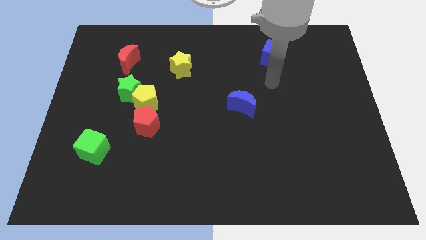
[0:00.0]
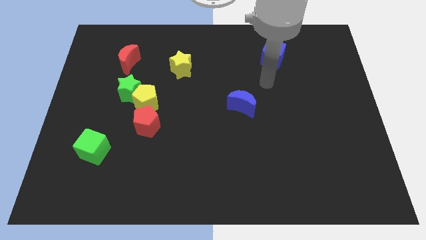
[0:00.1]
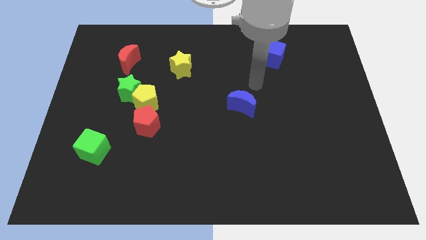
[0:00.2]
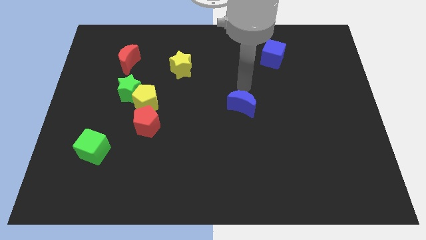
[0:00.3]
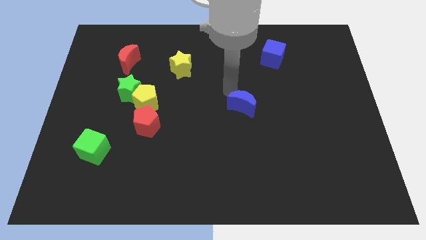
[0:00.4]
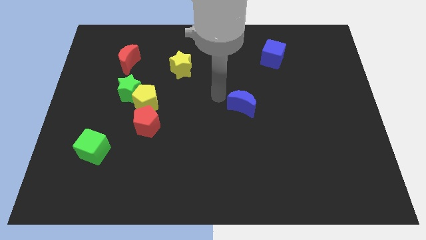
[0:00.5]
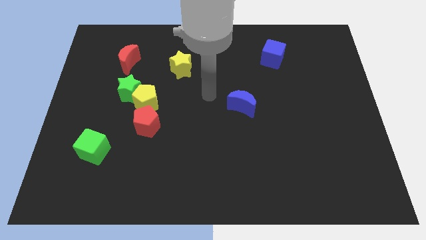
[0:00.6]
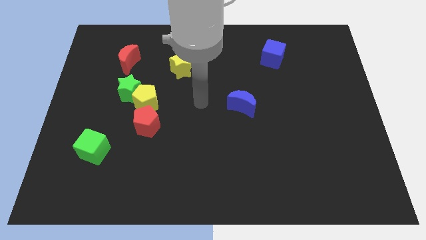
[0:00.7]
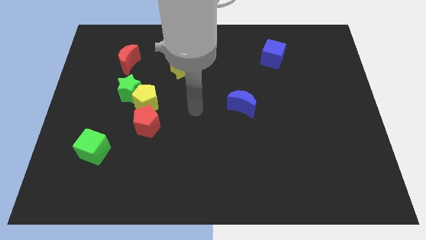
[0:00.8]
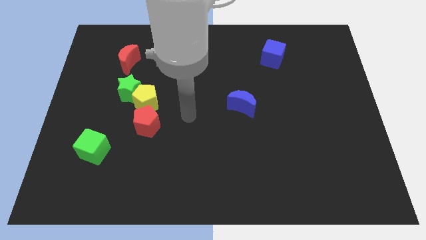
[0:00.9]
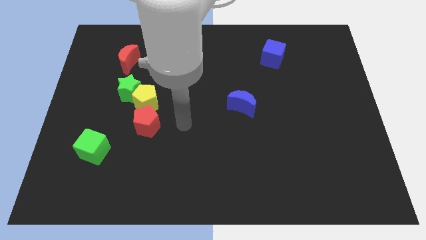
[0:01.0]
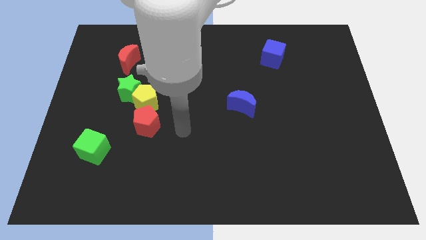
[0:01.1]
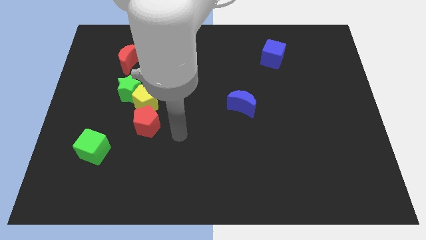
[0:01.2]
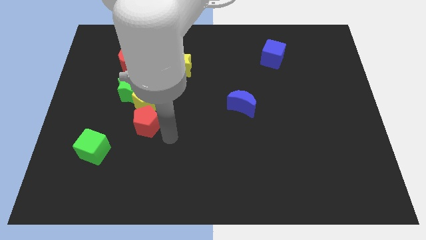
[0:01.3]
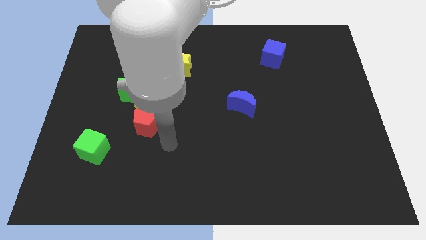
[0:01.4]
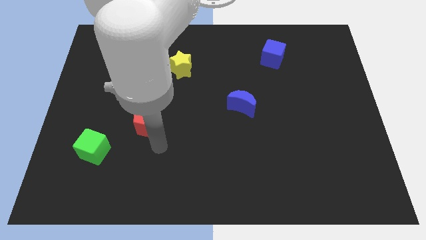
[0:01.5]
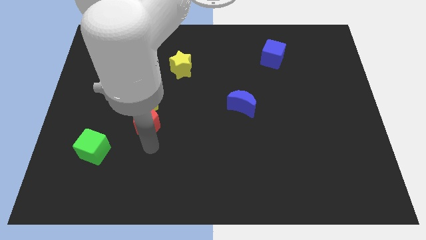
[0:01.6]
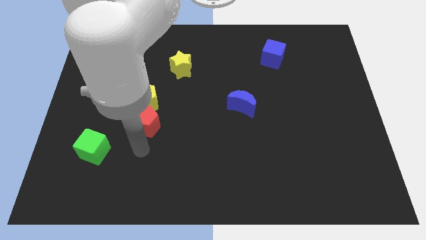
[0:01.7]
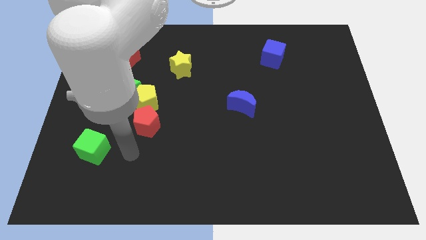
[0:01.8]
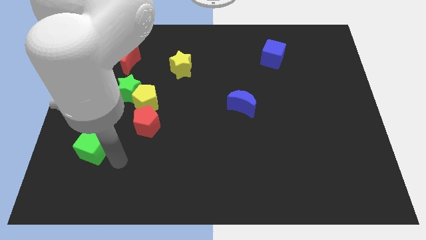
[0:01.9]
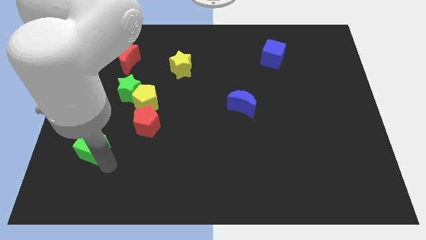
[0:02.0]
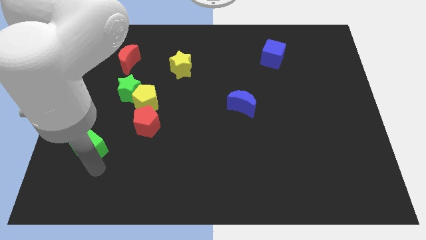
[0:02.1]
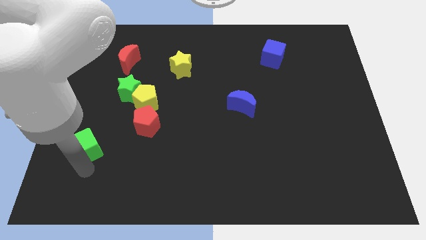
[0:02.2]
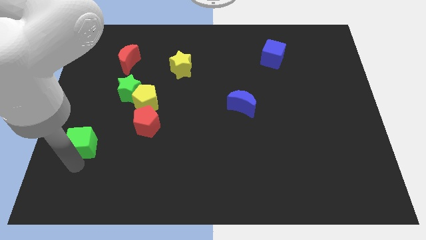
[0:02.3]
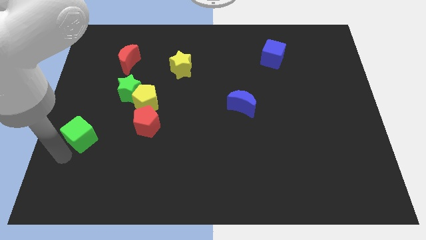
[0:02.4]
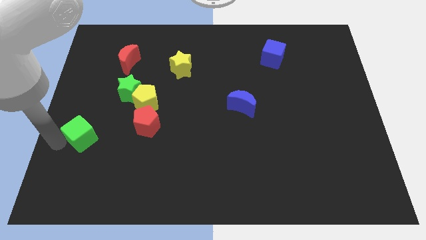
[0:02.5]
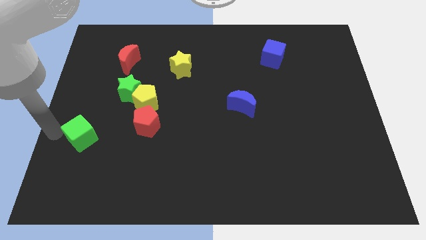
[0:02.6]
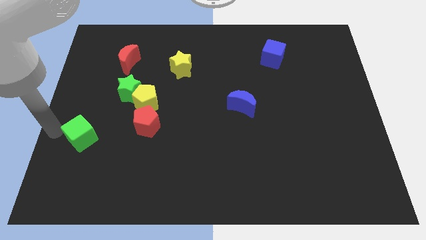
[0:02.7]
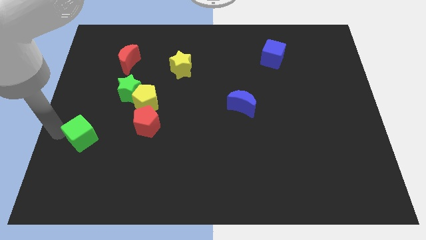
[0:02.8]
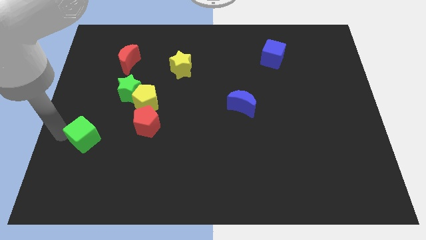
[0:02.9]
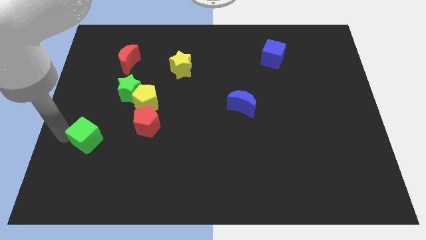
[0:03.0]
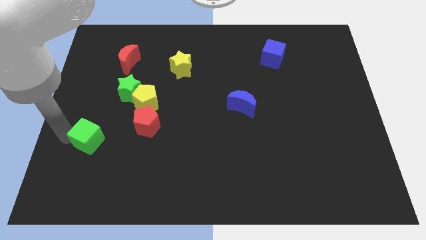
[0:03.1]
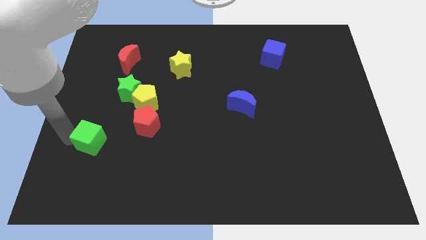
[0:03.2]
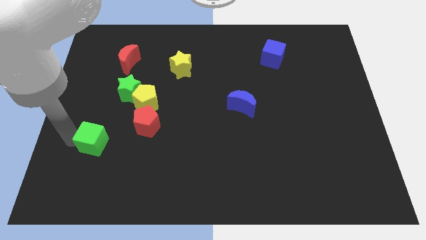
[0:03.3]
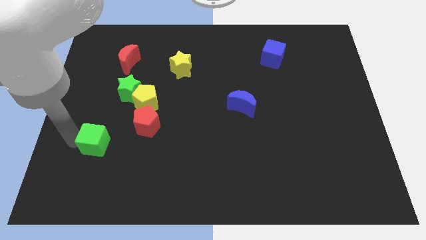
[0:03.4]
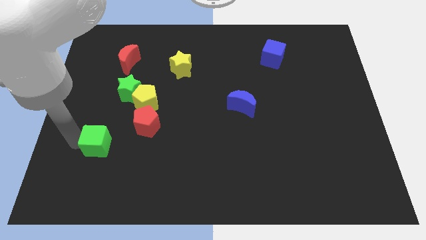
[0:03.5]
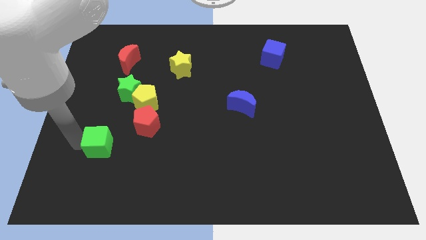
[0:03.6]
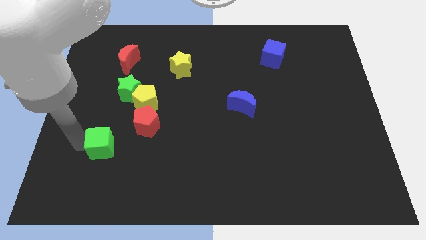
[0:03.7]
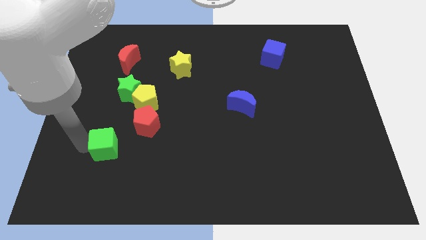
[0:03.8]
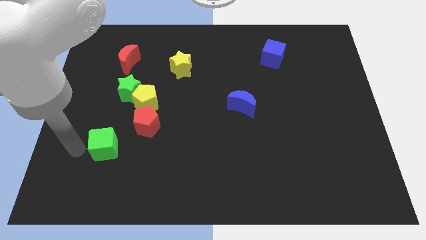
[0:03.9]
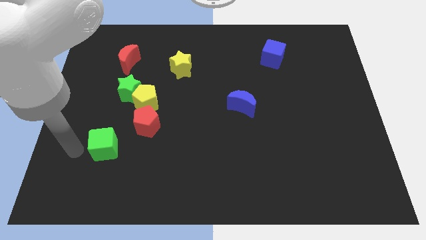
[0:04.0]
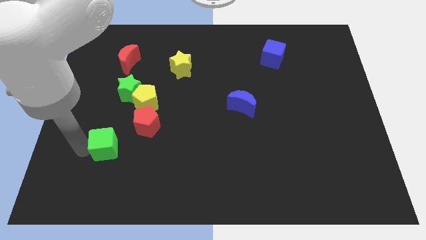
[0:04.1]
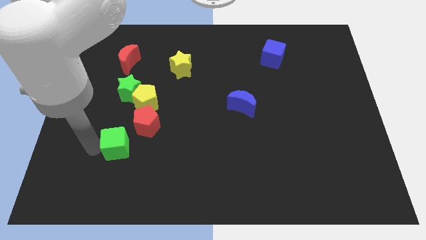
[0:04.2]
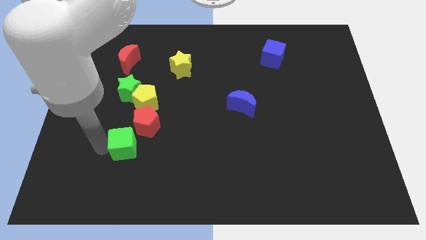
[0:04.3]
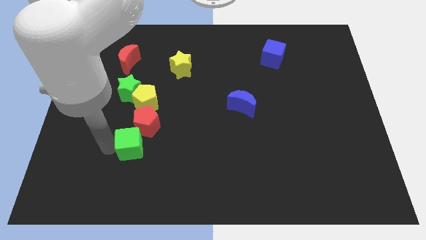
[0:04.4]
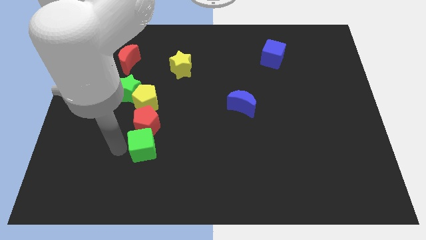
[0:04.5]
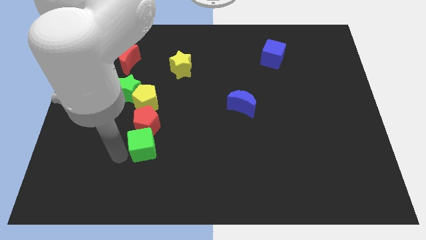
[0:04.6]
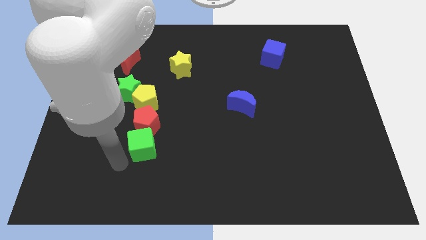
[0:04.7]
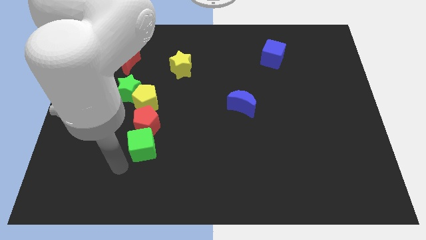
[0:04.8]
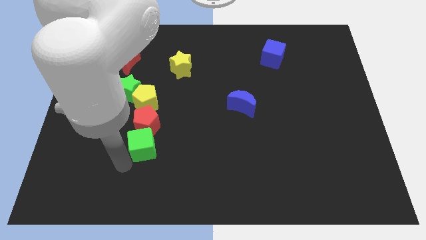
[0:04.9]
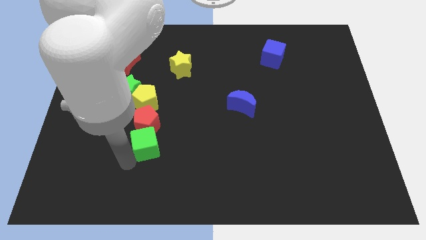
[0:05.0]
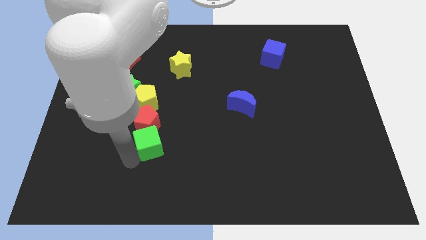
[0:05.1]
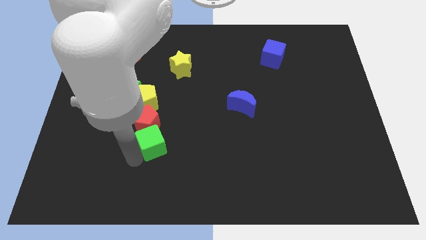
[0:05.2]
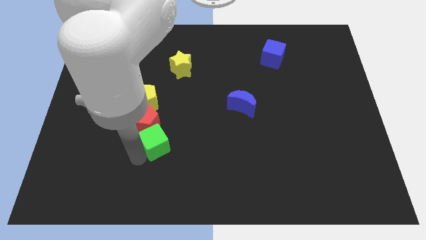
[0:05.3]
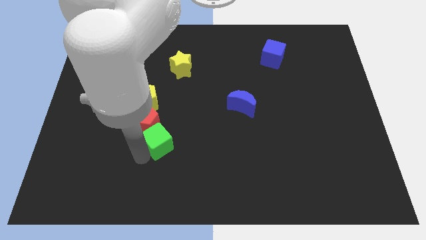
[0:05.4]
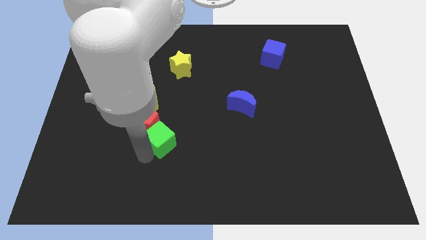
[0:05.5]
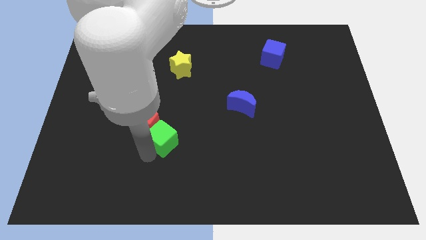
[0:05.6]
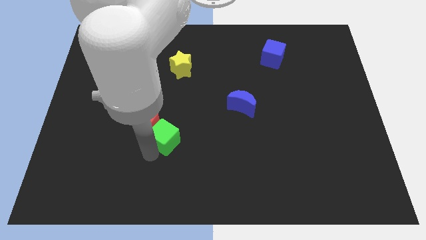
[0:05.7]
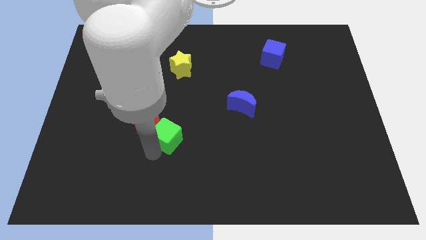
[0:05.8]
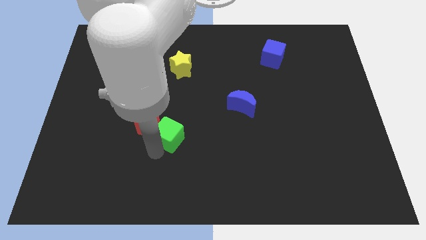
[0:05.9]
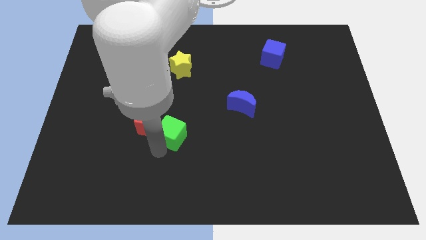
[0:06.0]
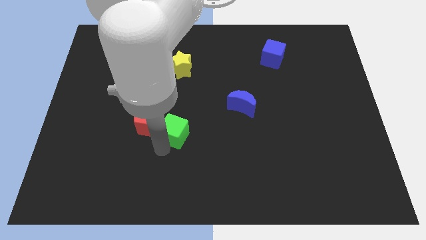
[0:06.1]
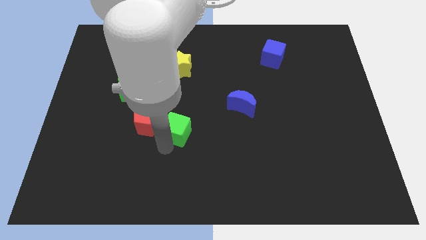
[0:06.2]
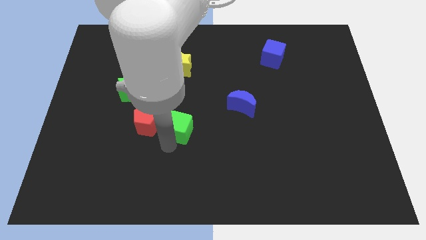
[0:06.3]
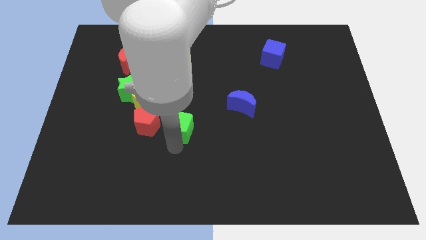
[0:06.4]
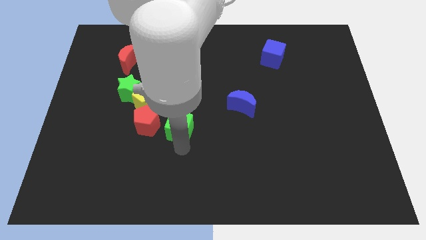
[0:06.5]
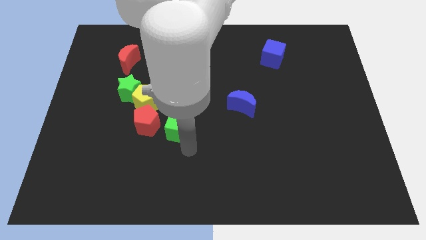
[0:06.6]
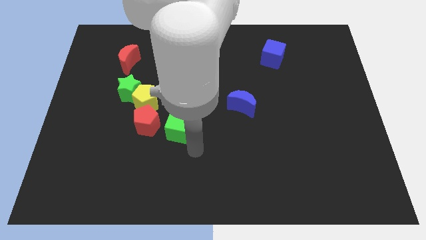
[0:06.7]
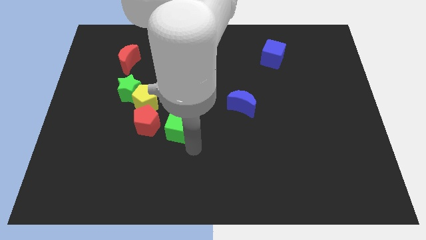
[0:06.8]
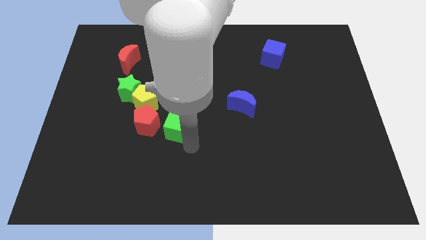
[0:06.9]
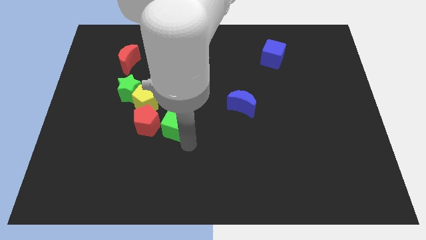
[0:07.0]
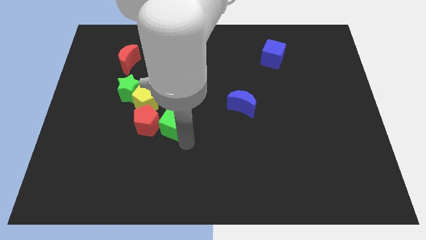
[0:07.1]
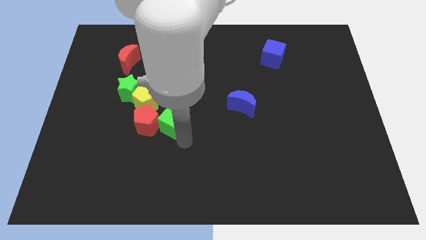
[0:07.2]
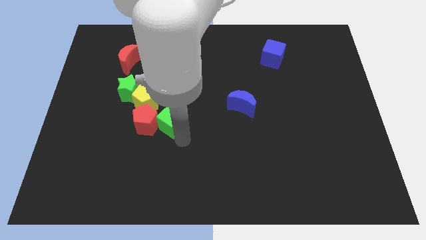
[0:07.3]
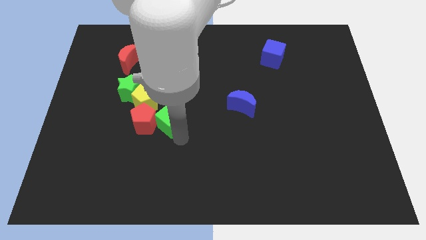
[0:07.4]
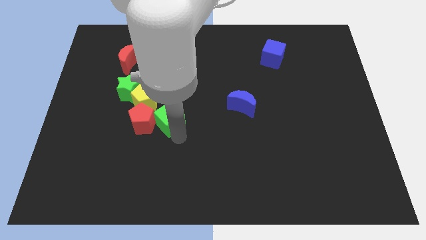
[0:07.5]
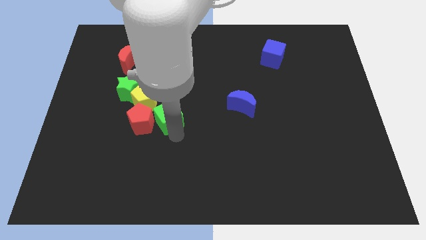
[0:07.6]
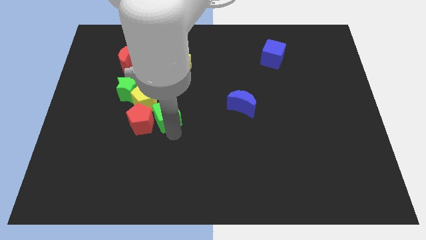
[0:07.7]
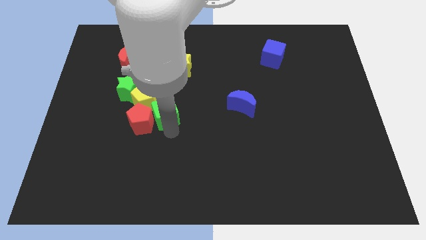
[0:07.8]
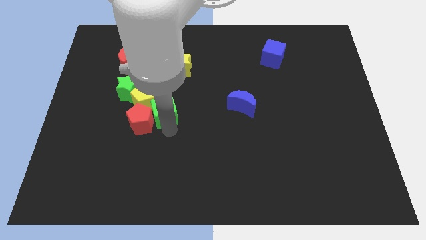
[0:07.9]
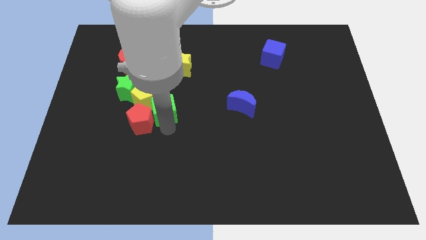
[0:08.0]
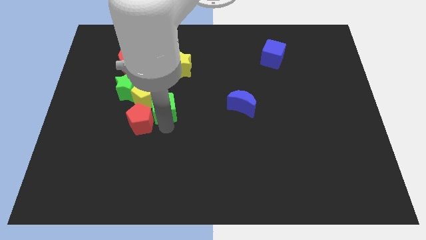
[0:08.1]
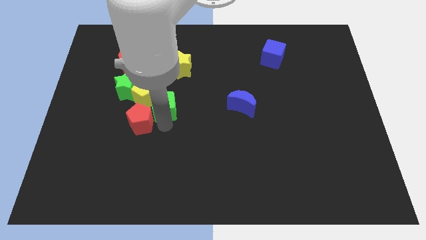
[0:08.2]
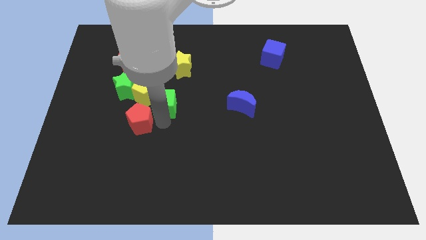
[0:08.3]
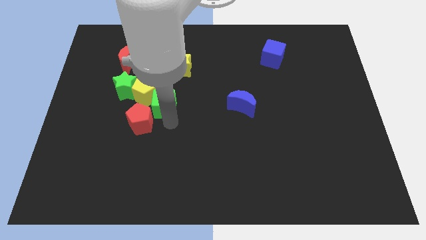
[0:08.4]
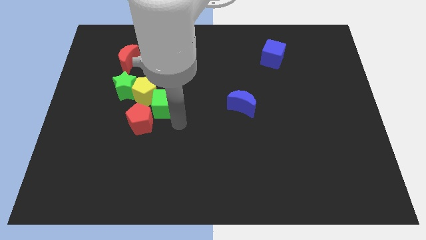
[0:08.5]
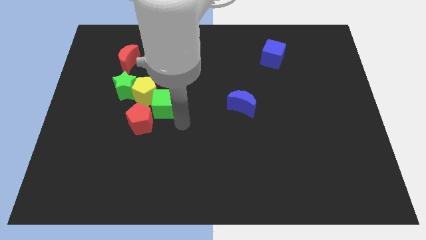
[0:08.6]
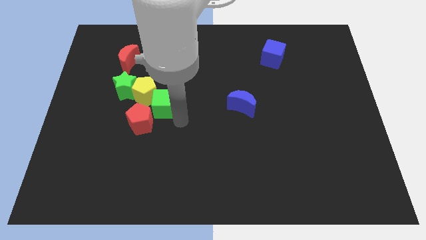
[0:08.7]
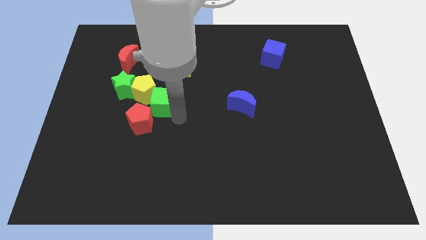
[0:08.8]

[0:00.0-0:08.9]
slide the green cube to the top side of the red pentagon
